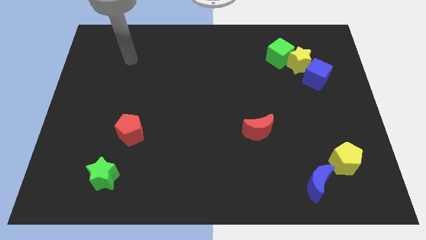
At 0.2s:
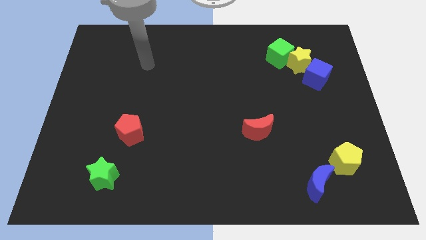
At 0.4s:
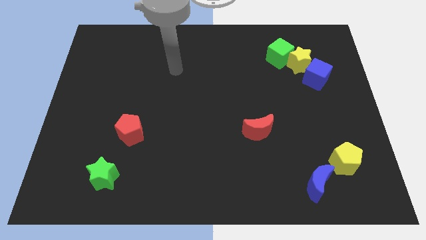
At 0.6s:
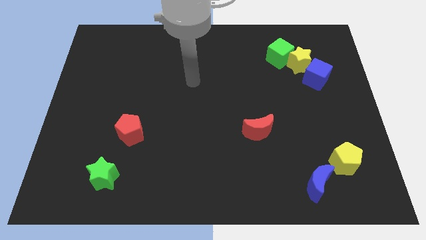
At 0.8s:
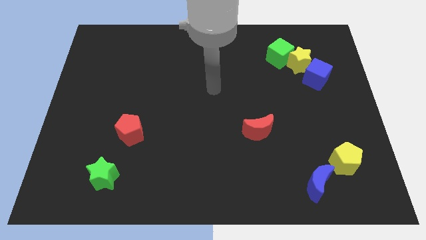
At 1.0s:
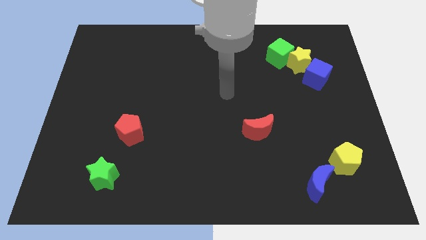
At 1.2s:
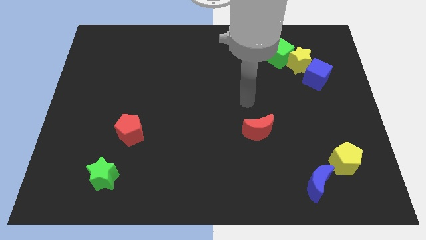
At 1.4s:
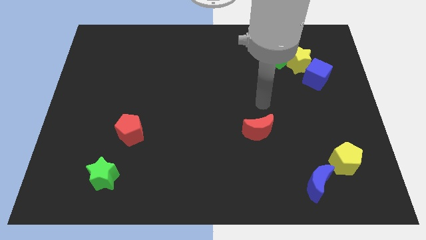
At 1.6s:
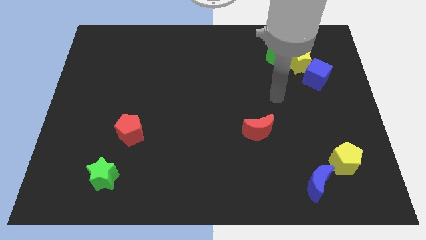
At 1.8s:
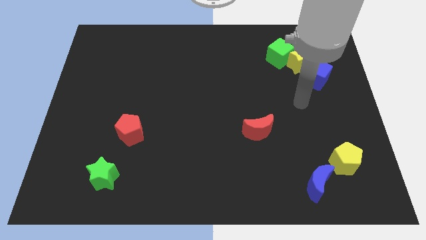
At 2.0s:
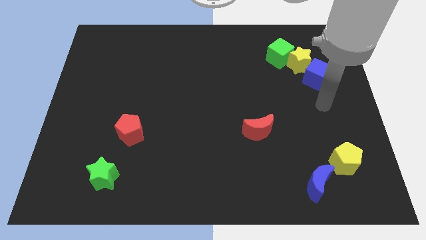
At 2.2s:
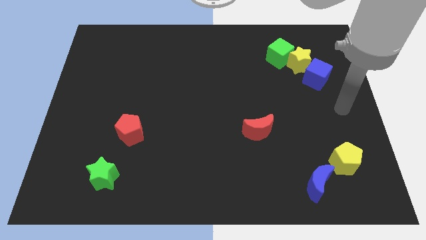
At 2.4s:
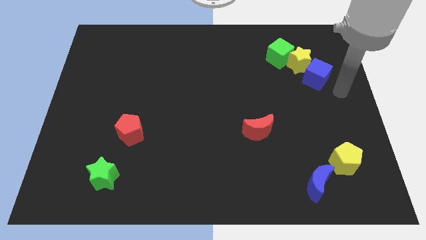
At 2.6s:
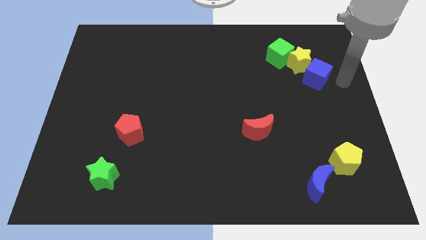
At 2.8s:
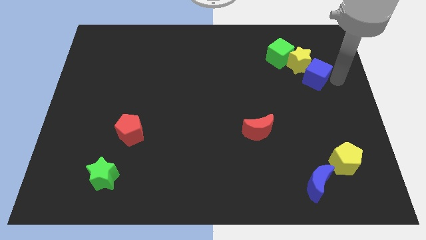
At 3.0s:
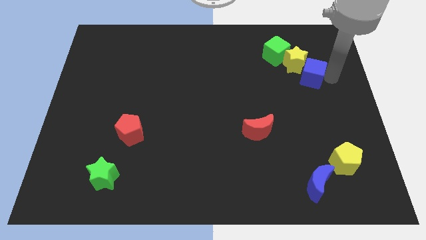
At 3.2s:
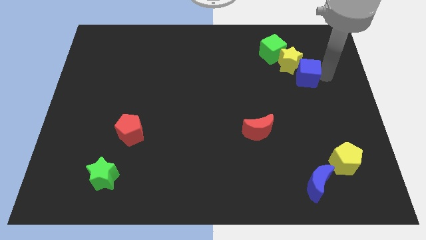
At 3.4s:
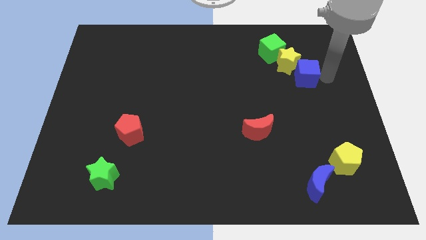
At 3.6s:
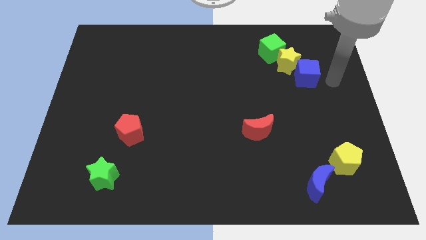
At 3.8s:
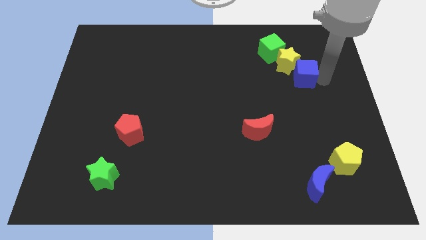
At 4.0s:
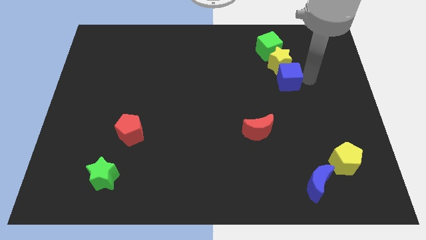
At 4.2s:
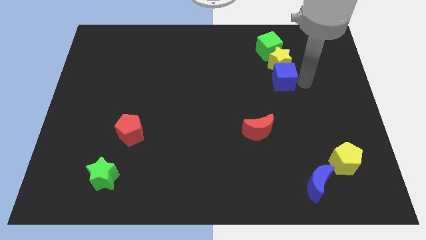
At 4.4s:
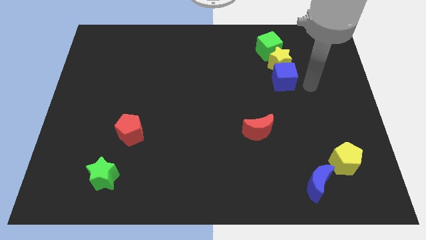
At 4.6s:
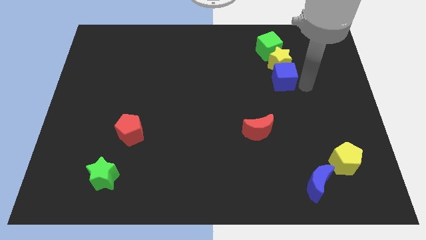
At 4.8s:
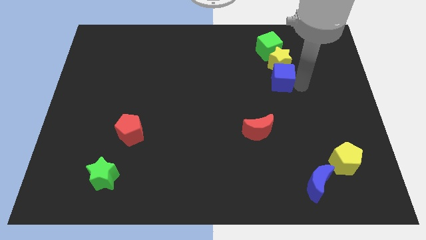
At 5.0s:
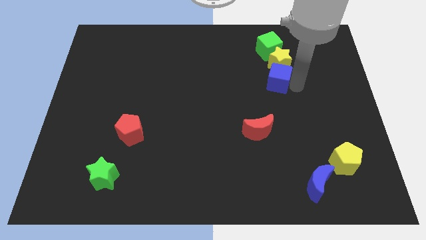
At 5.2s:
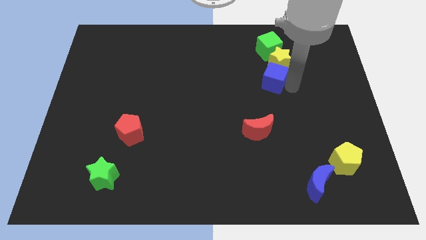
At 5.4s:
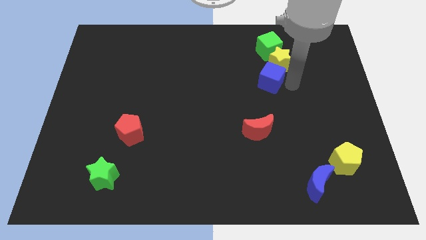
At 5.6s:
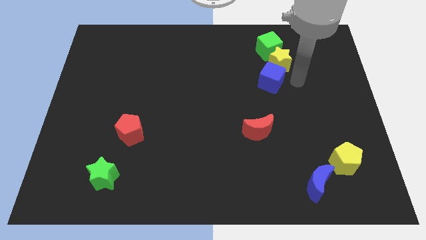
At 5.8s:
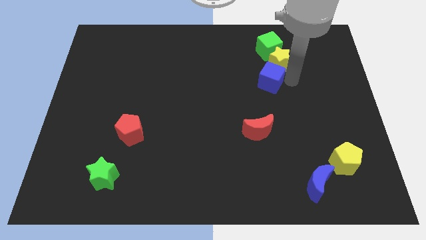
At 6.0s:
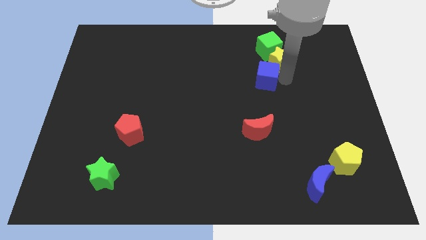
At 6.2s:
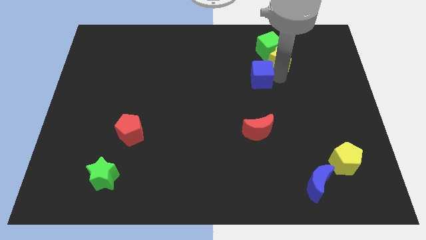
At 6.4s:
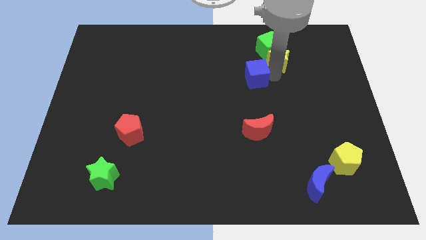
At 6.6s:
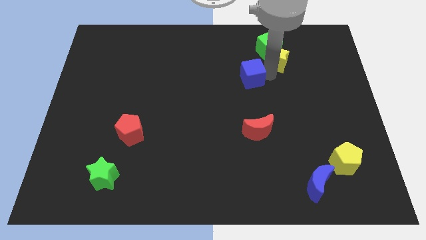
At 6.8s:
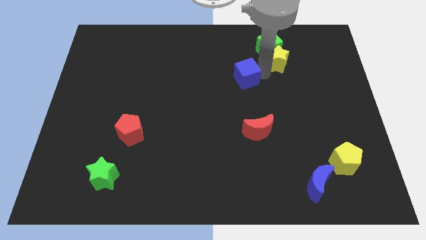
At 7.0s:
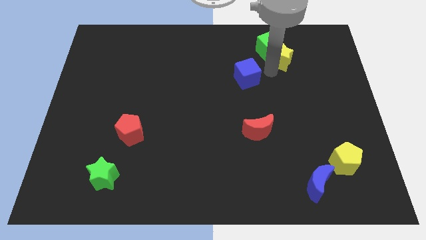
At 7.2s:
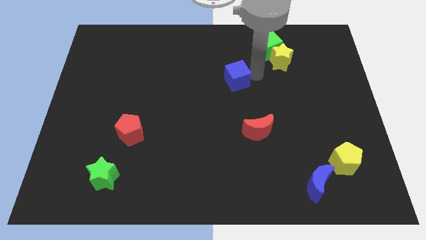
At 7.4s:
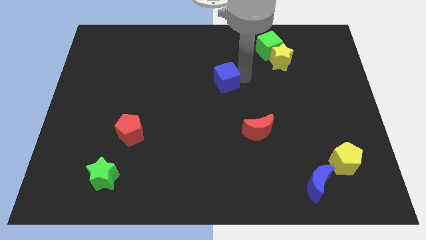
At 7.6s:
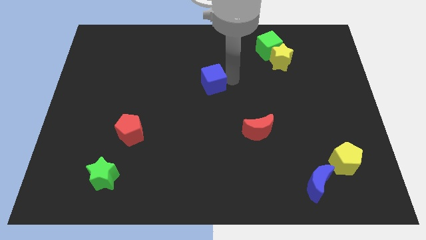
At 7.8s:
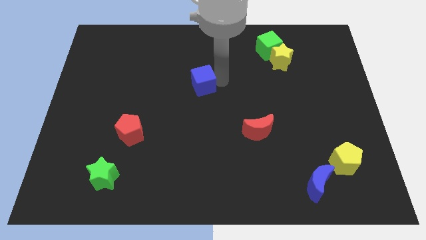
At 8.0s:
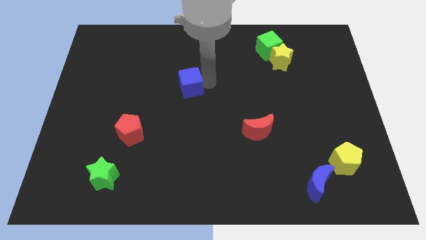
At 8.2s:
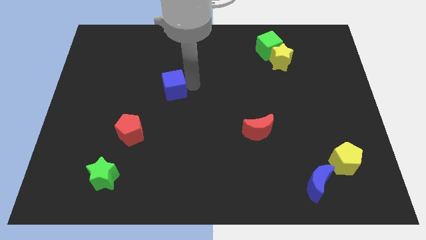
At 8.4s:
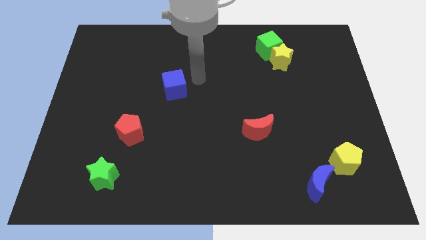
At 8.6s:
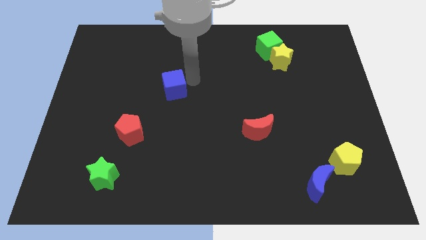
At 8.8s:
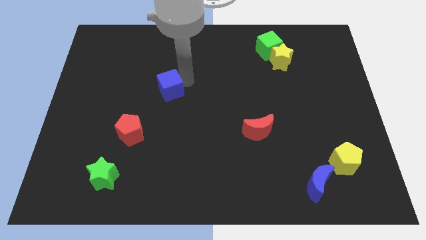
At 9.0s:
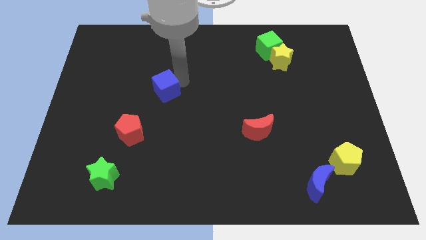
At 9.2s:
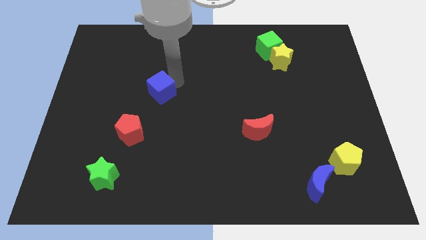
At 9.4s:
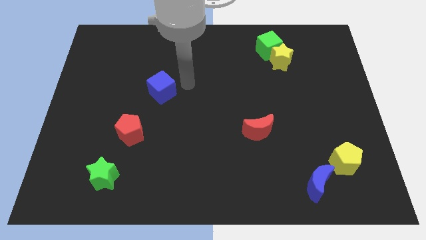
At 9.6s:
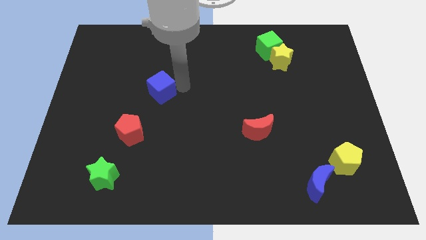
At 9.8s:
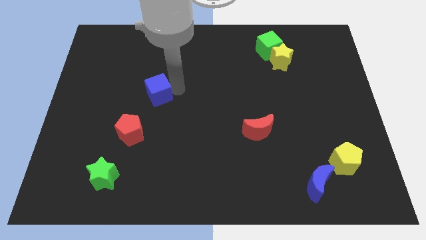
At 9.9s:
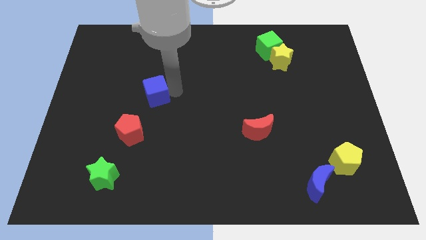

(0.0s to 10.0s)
slide the blue cube to the top of the red pentagon

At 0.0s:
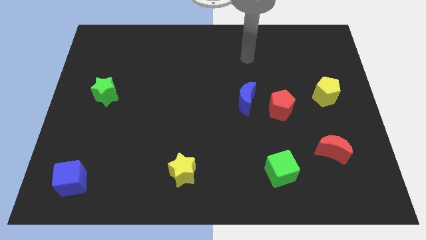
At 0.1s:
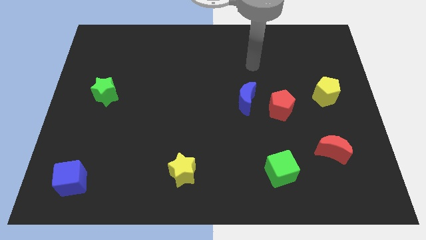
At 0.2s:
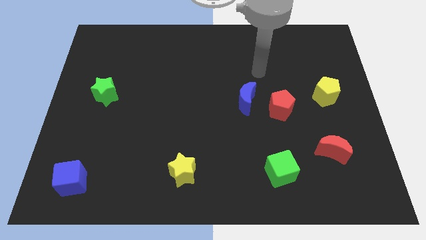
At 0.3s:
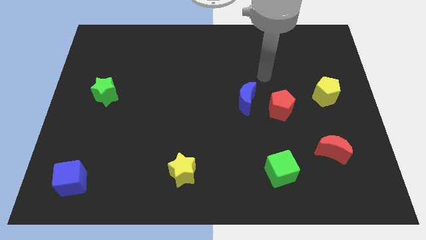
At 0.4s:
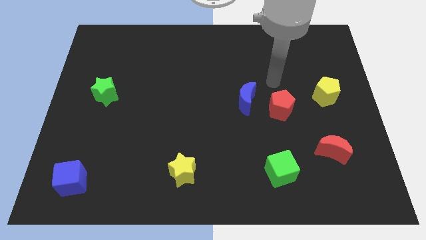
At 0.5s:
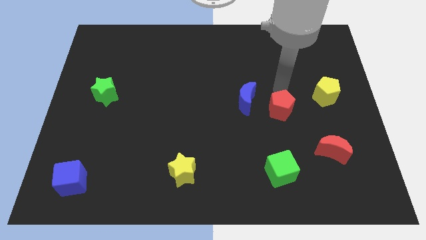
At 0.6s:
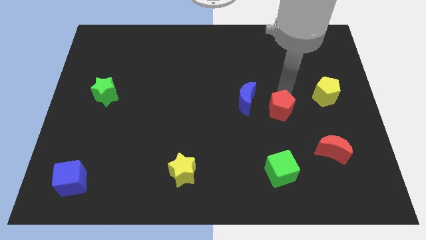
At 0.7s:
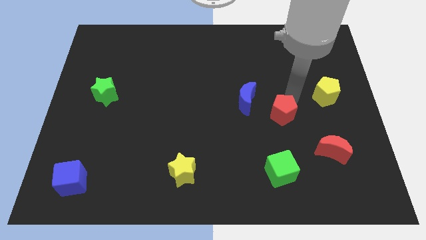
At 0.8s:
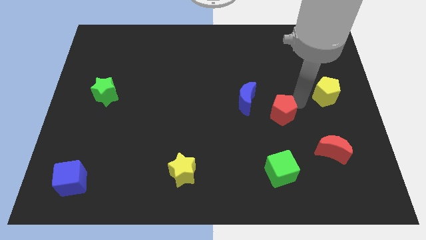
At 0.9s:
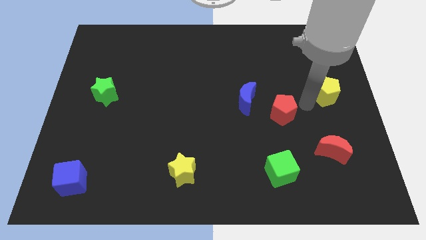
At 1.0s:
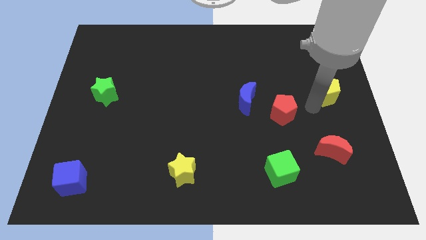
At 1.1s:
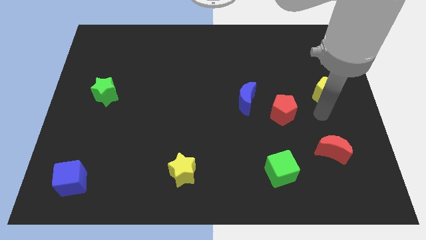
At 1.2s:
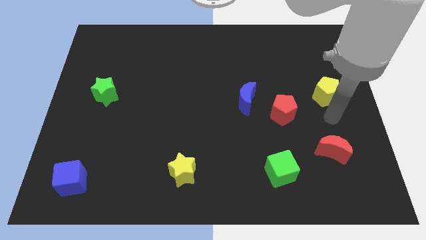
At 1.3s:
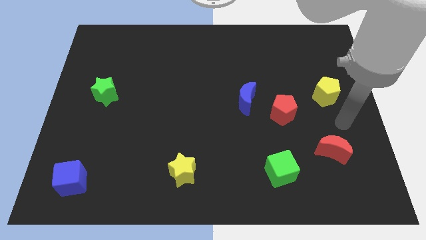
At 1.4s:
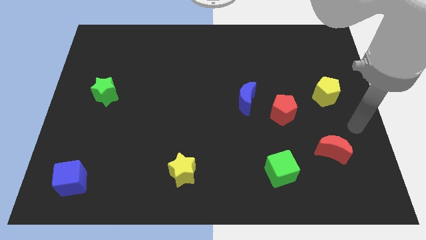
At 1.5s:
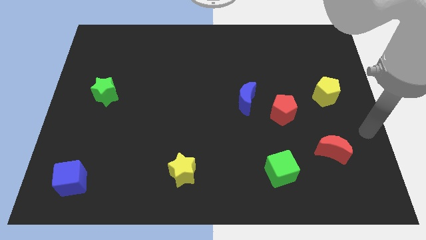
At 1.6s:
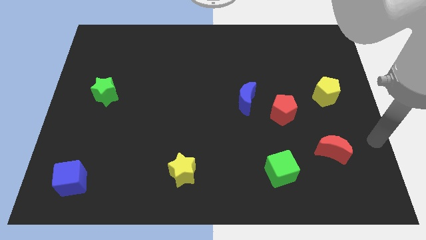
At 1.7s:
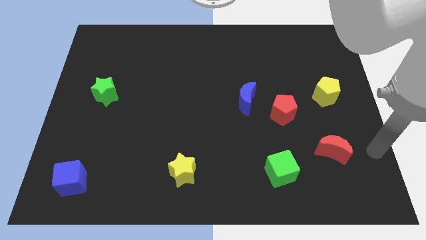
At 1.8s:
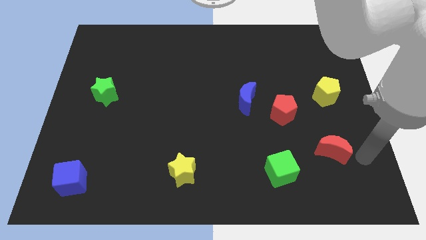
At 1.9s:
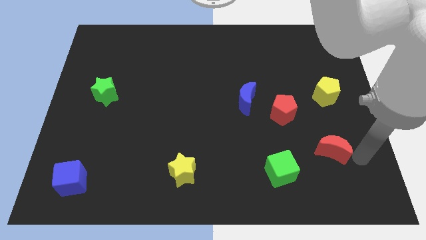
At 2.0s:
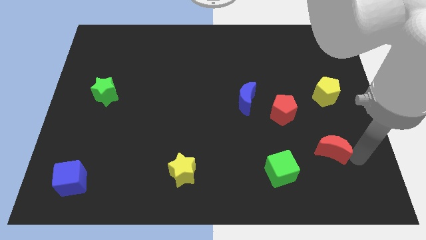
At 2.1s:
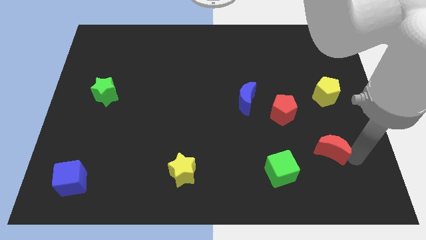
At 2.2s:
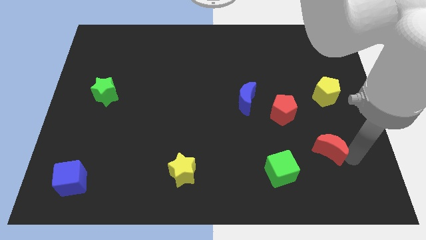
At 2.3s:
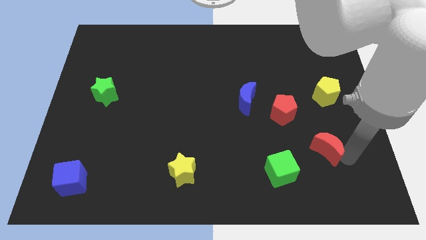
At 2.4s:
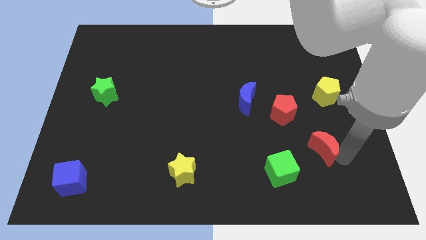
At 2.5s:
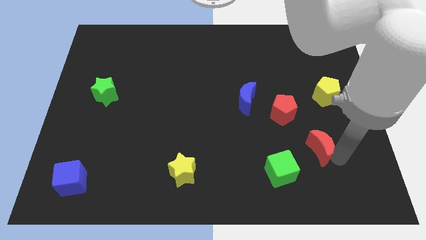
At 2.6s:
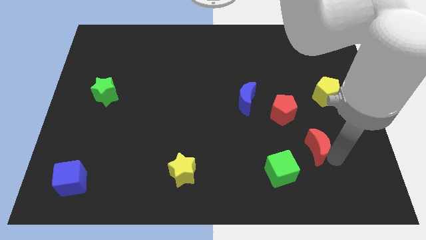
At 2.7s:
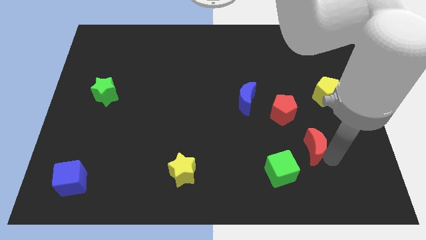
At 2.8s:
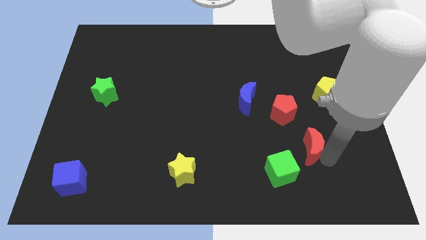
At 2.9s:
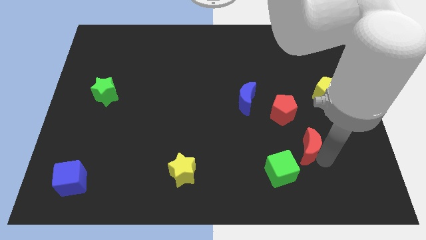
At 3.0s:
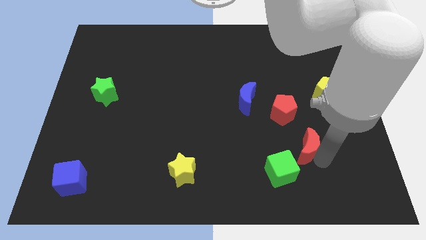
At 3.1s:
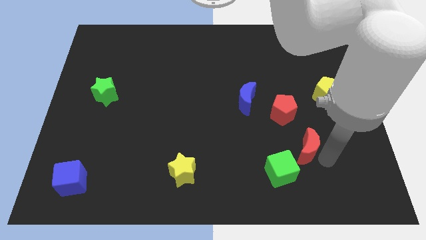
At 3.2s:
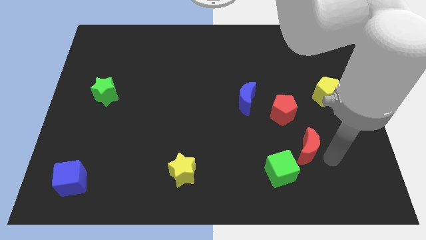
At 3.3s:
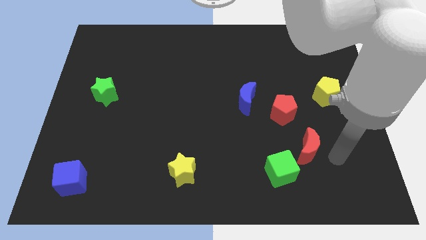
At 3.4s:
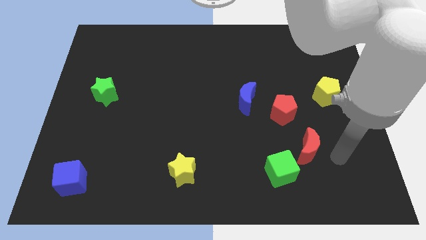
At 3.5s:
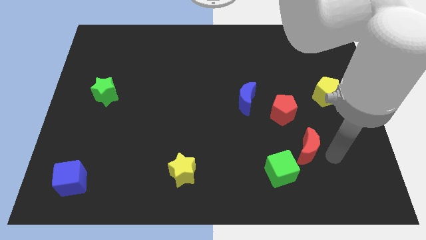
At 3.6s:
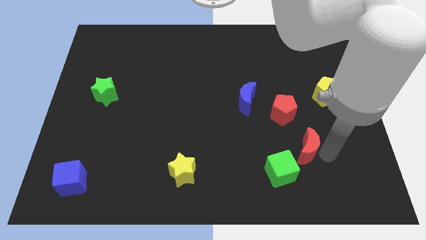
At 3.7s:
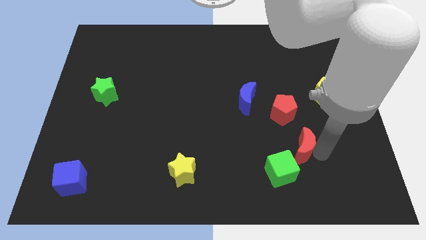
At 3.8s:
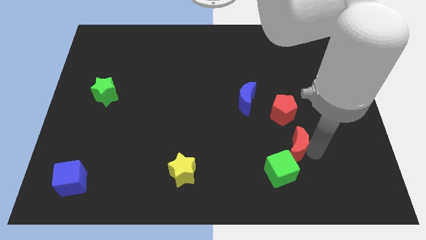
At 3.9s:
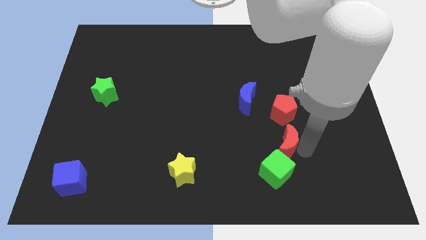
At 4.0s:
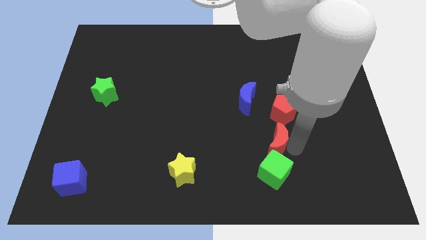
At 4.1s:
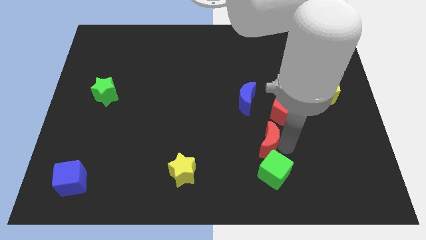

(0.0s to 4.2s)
put the red moon to the bottom side of the blue moon
